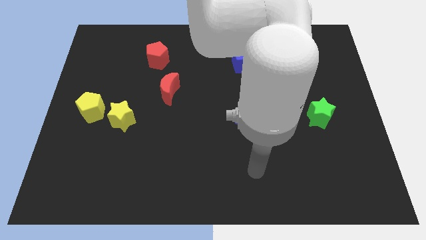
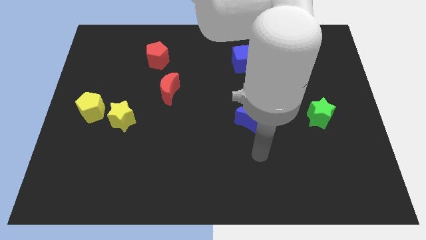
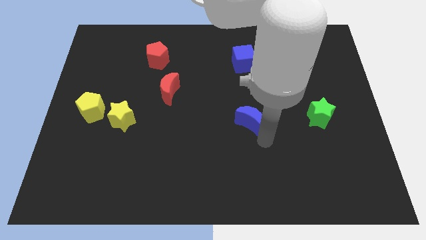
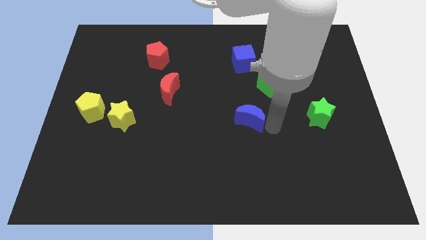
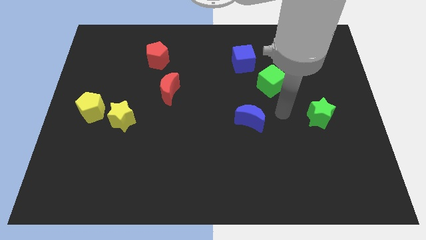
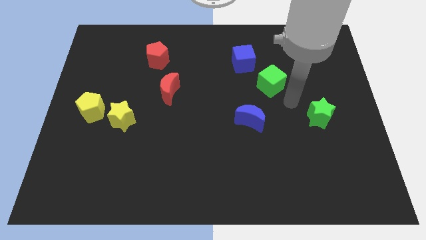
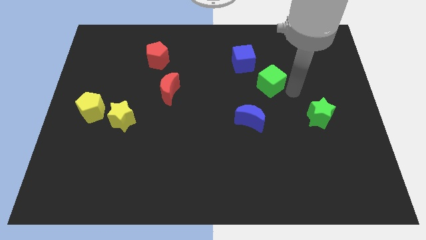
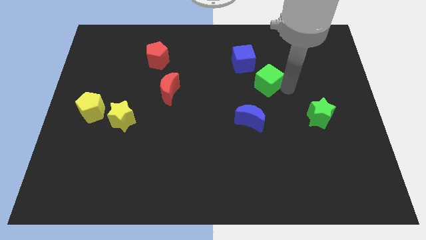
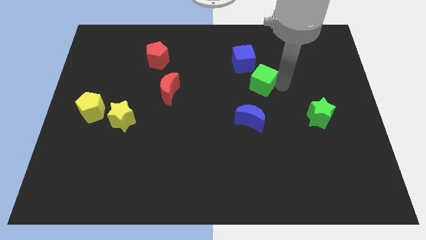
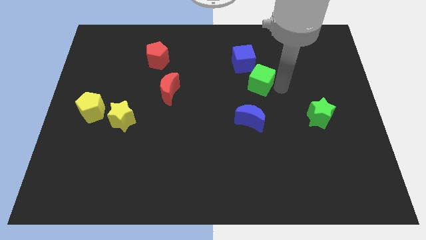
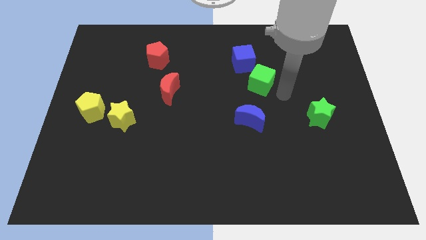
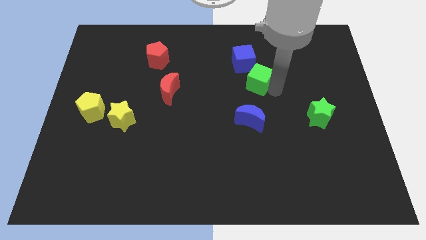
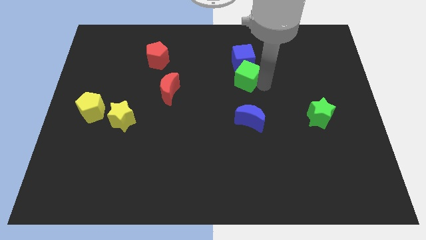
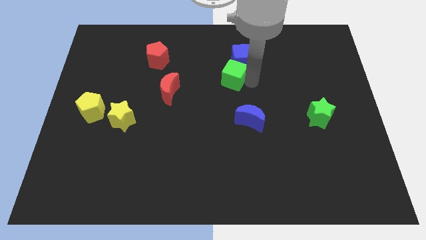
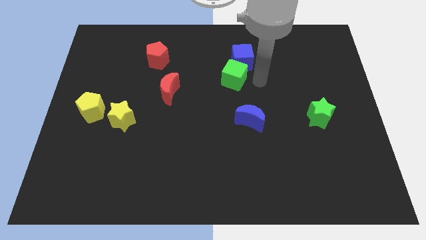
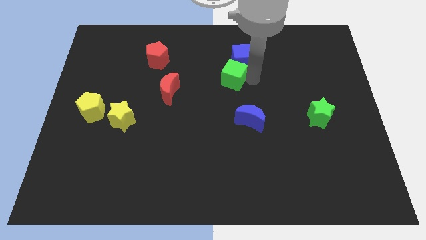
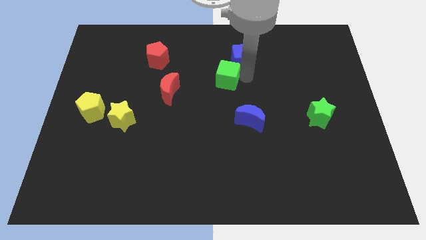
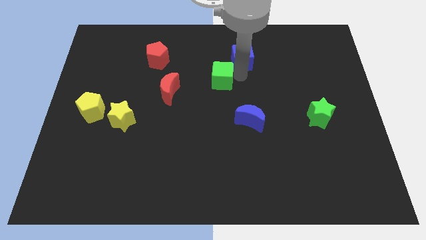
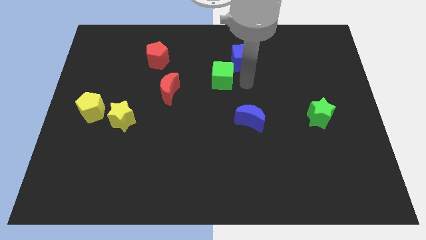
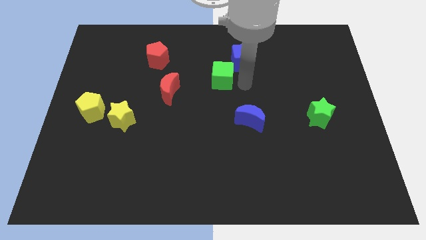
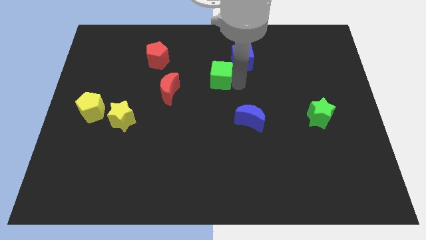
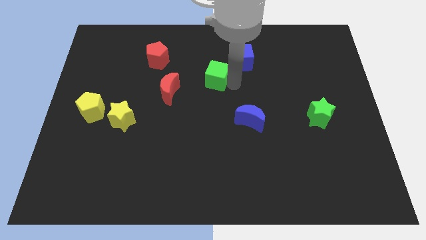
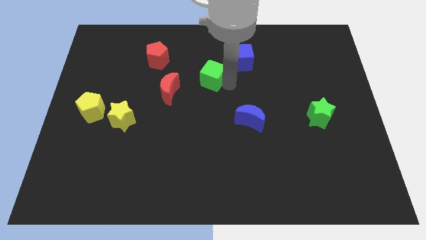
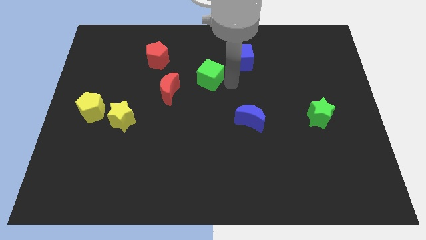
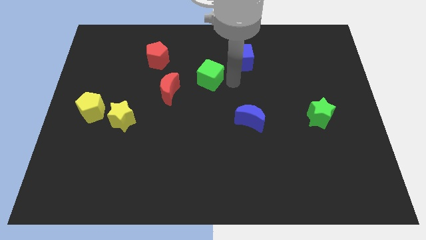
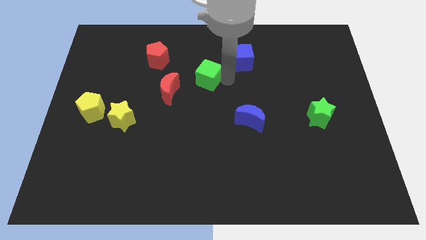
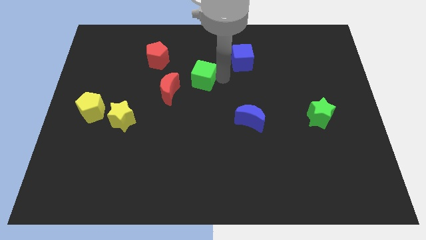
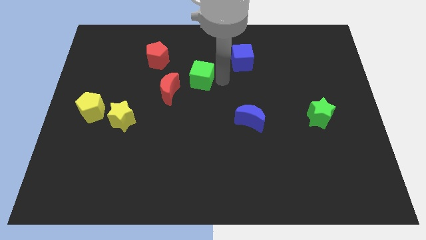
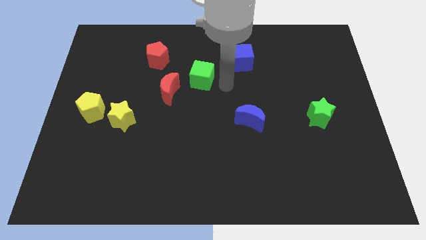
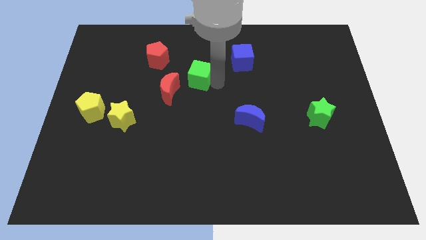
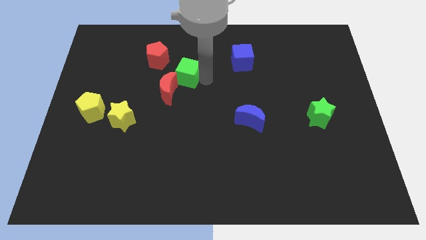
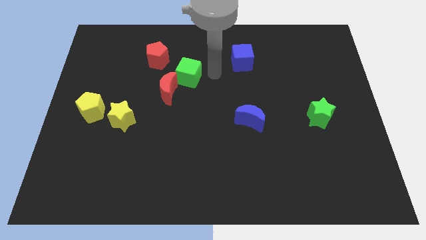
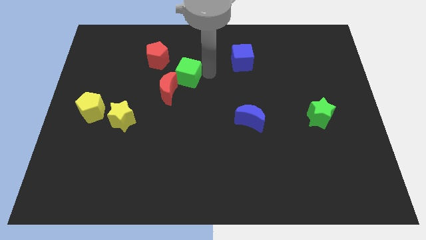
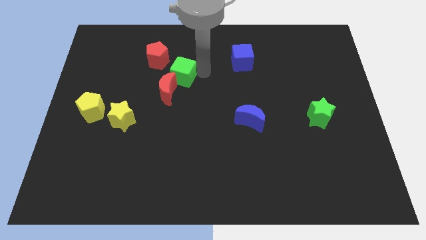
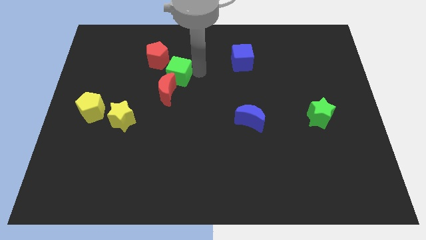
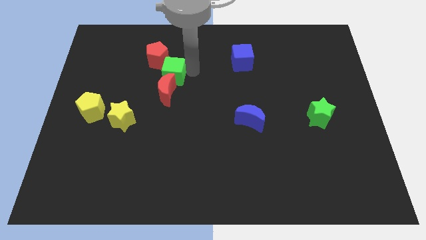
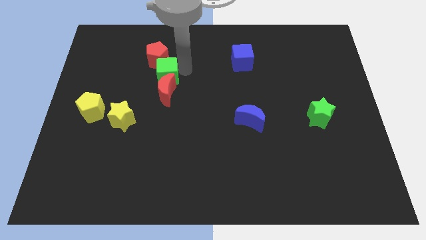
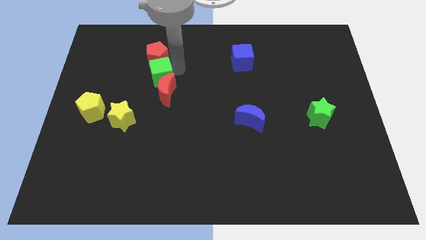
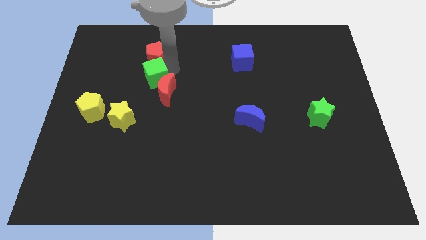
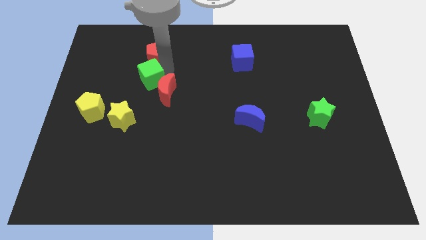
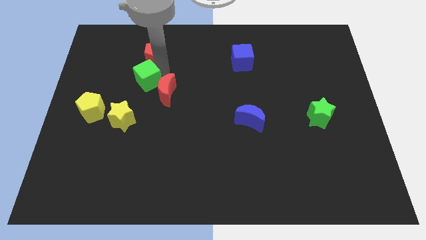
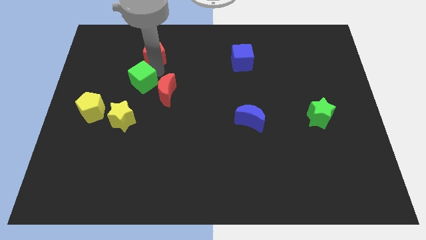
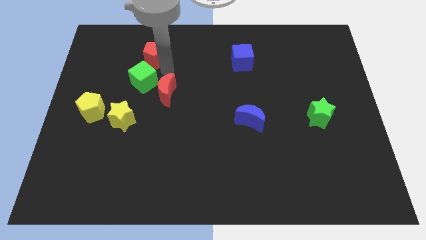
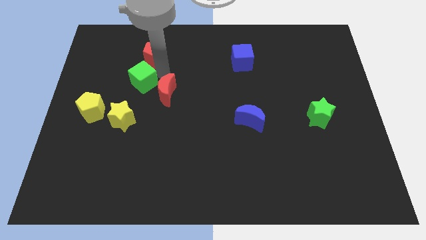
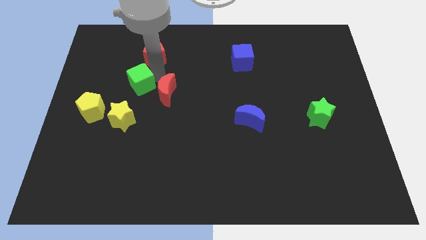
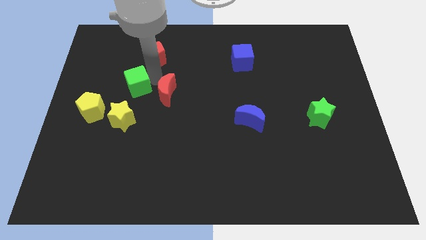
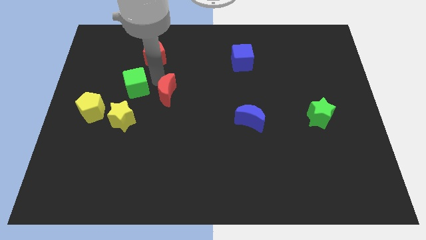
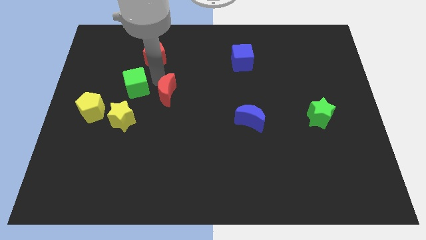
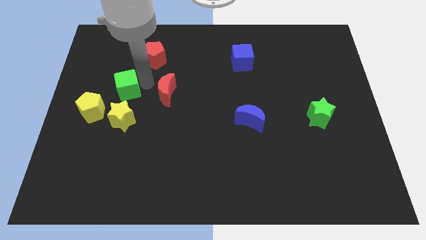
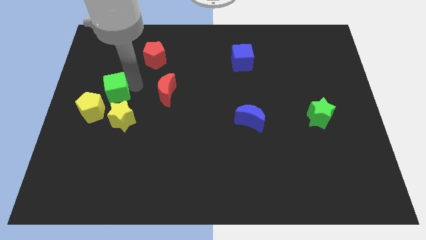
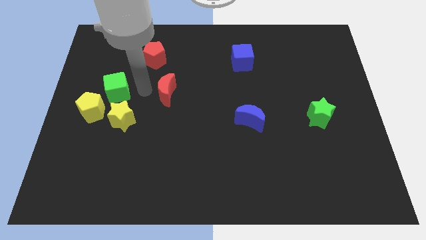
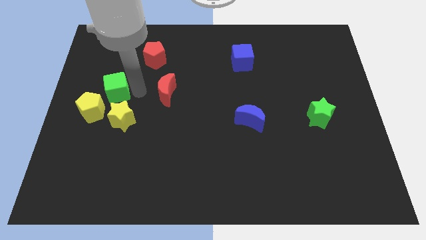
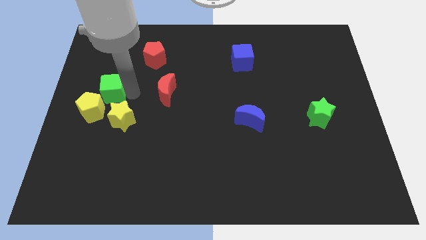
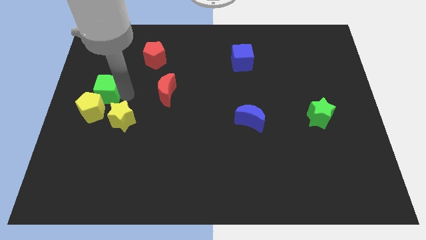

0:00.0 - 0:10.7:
push the green cube to the center left
